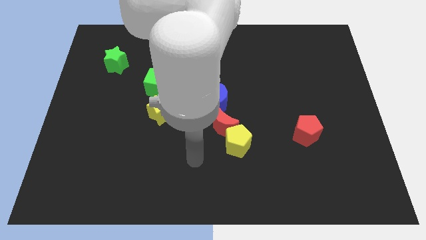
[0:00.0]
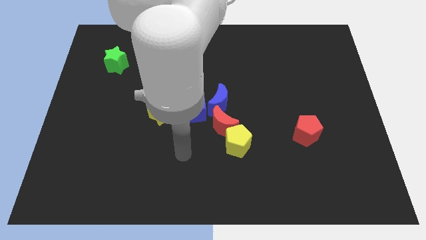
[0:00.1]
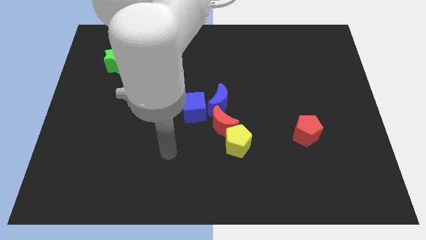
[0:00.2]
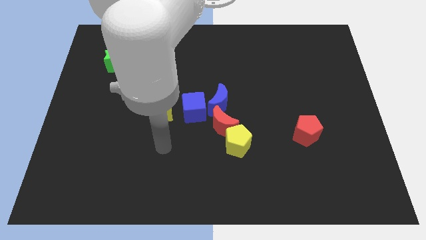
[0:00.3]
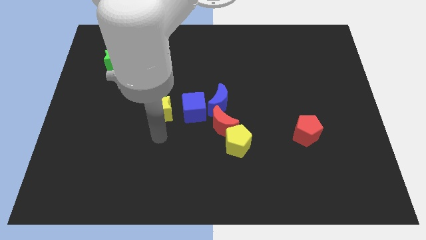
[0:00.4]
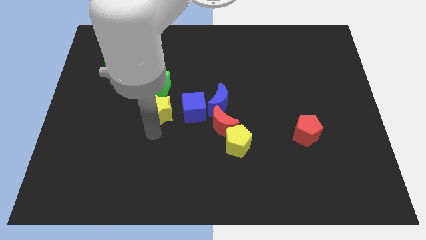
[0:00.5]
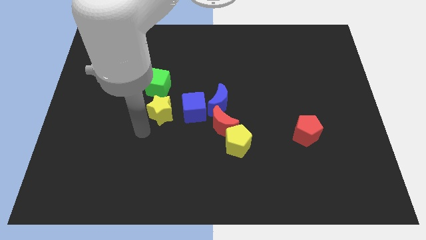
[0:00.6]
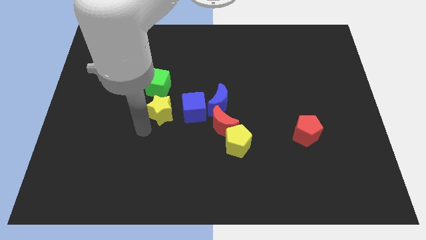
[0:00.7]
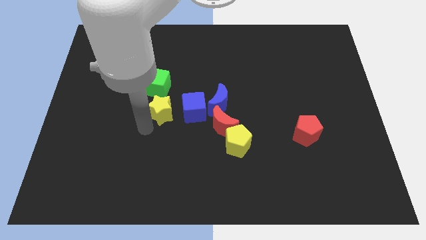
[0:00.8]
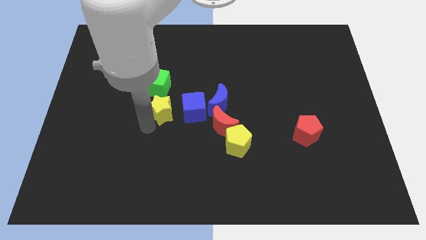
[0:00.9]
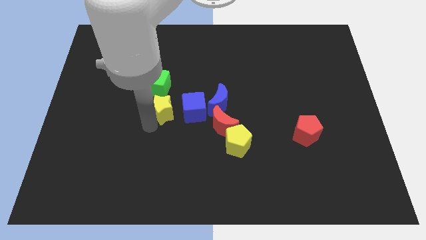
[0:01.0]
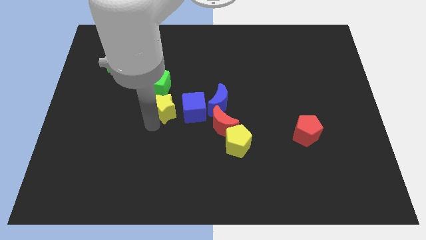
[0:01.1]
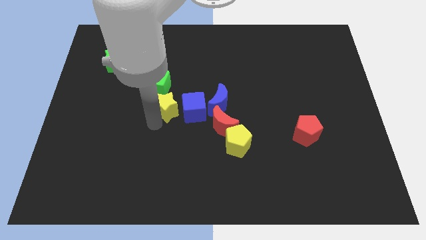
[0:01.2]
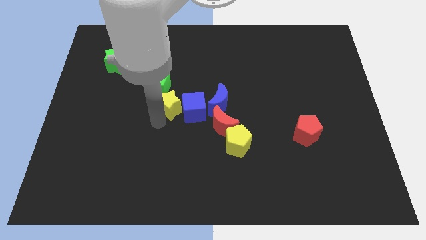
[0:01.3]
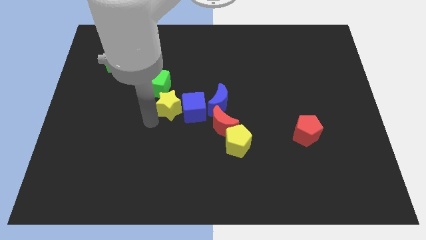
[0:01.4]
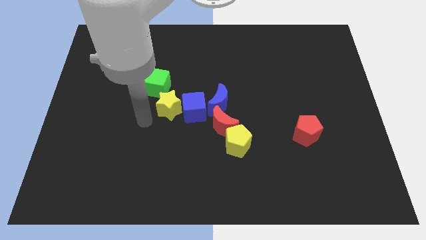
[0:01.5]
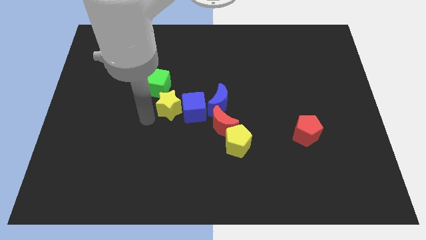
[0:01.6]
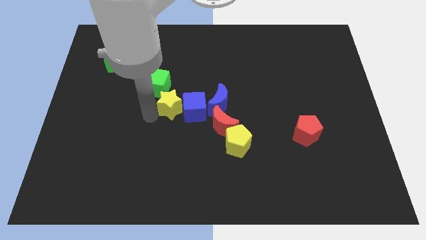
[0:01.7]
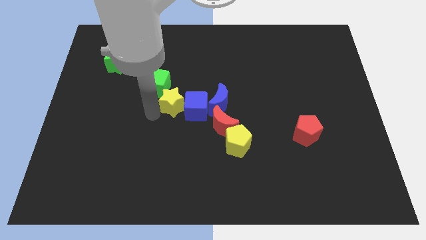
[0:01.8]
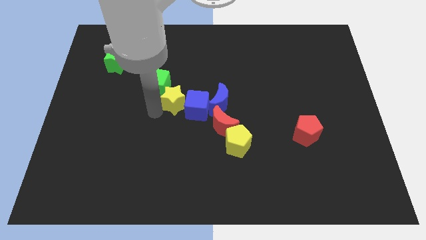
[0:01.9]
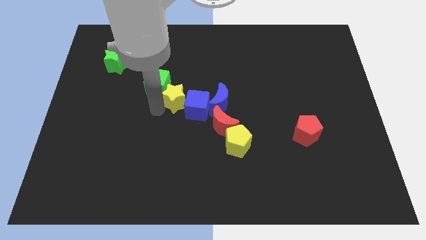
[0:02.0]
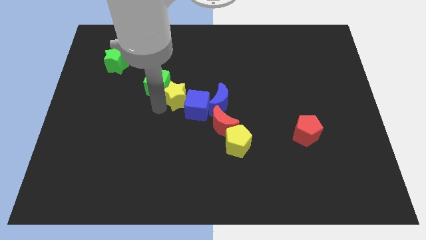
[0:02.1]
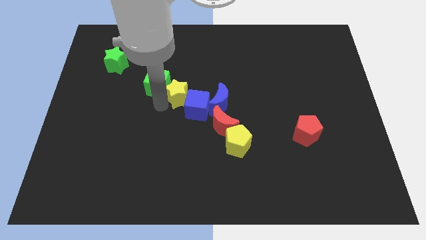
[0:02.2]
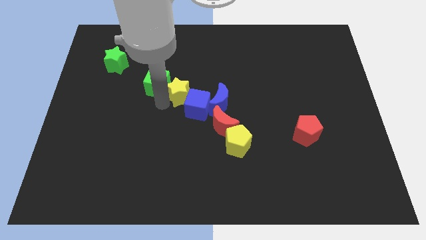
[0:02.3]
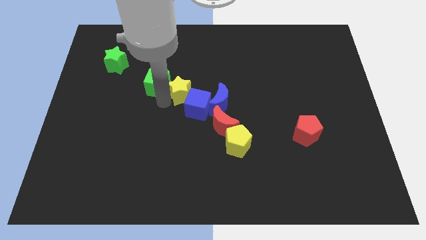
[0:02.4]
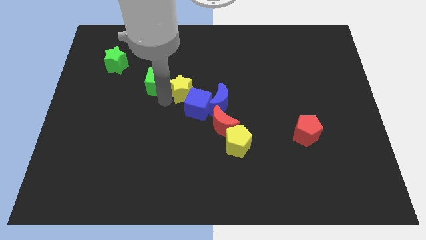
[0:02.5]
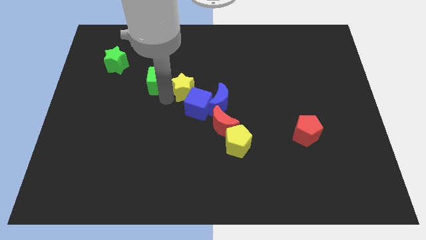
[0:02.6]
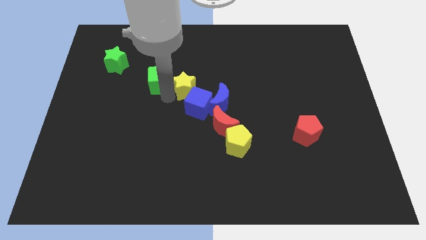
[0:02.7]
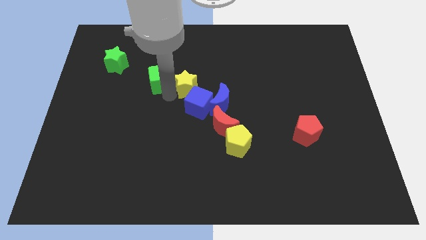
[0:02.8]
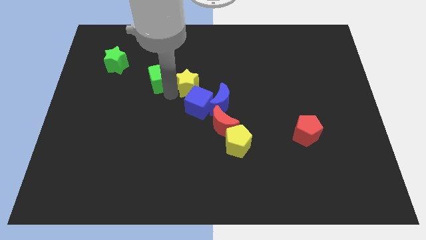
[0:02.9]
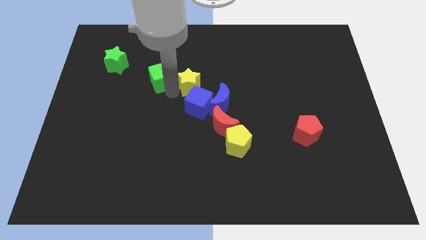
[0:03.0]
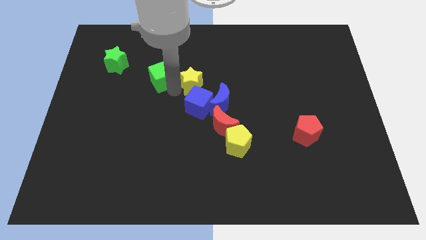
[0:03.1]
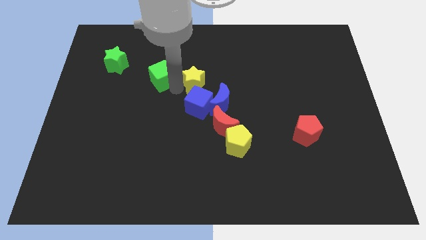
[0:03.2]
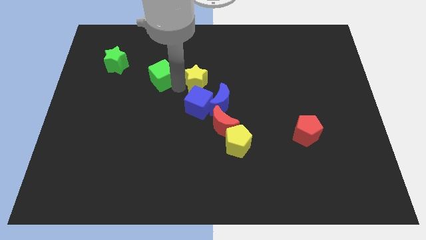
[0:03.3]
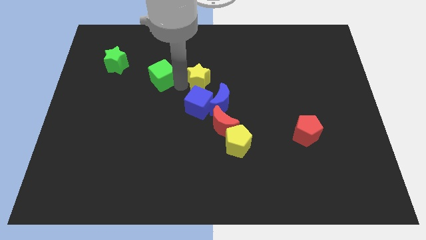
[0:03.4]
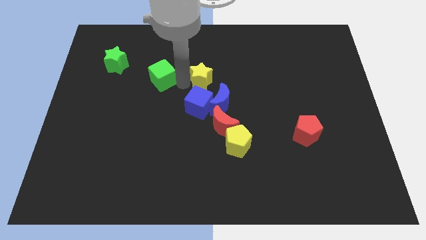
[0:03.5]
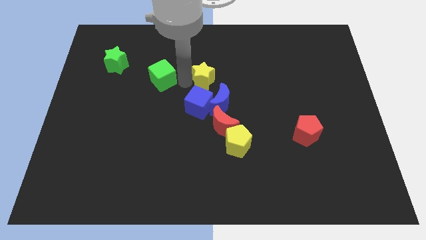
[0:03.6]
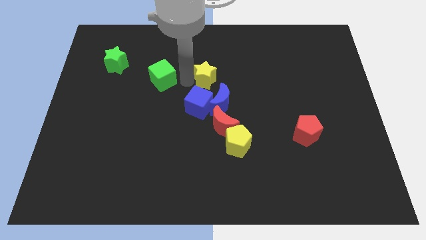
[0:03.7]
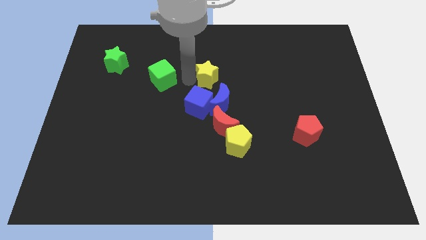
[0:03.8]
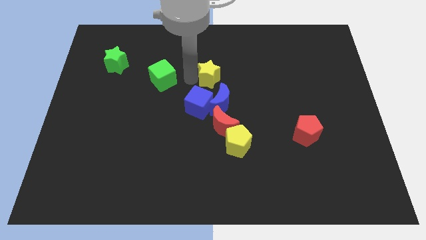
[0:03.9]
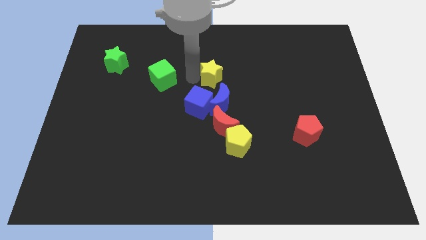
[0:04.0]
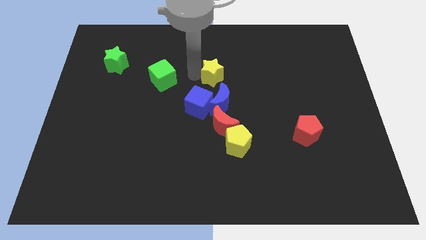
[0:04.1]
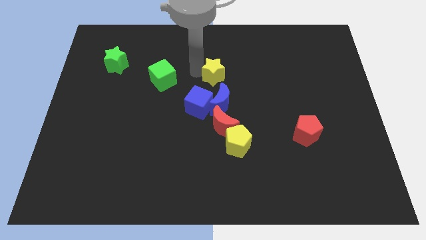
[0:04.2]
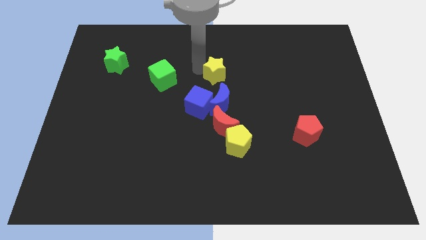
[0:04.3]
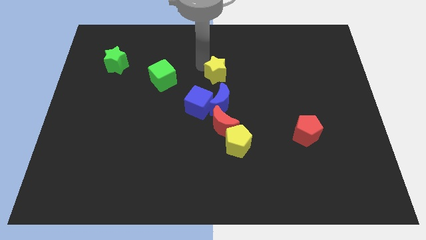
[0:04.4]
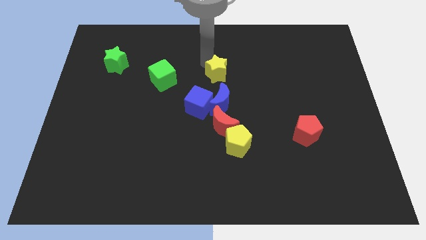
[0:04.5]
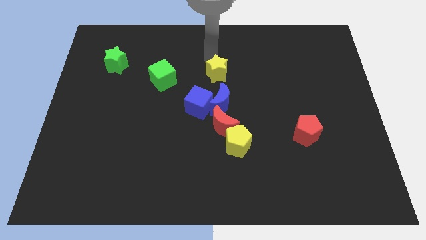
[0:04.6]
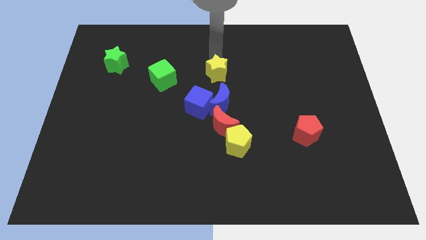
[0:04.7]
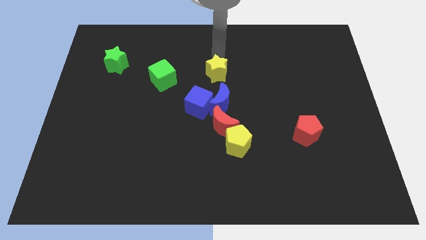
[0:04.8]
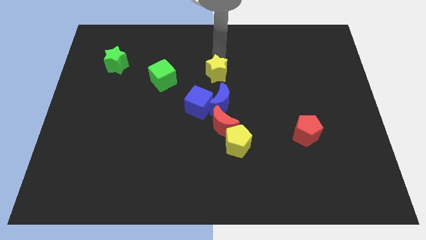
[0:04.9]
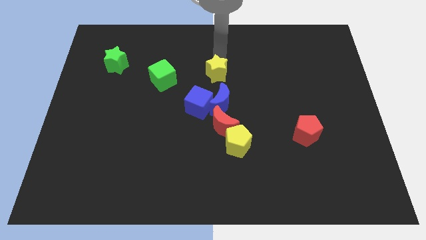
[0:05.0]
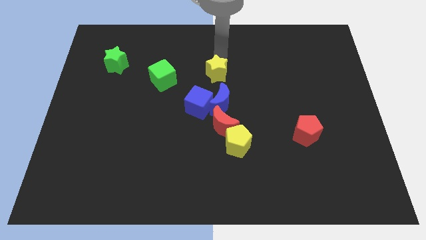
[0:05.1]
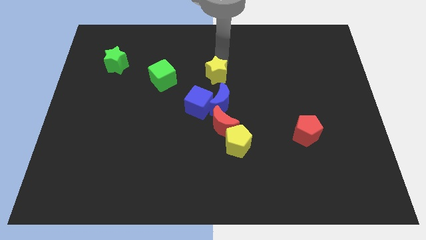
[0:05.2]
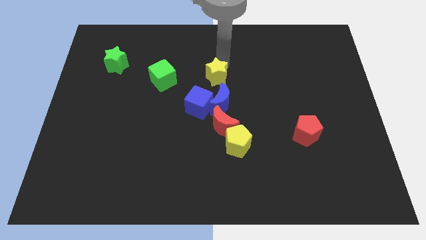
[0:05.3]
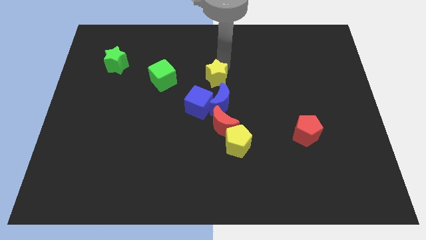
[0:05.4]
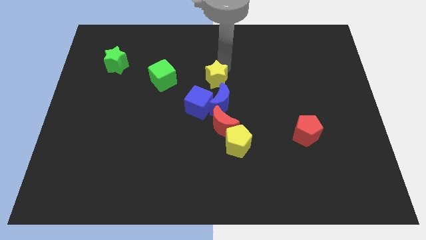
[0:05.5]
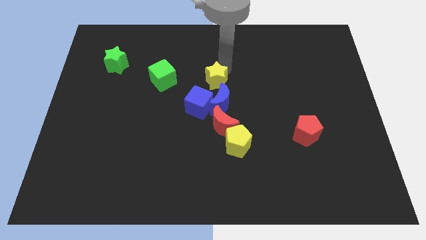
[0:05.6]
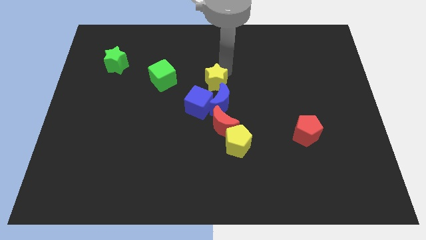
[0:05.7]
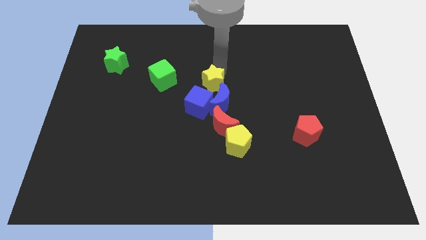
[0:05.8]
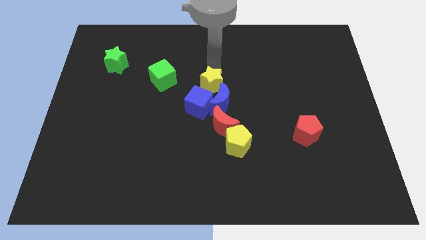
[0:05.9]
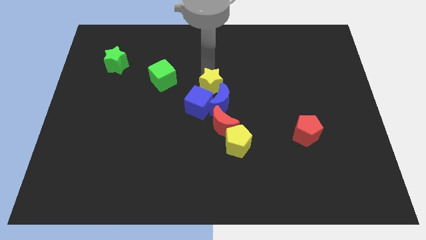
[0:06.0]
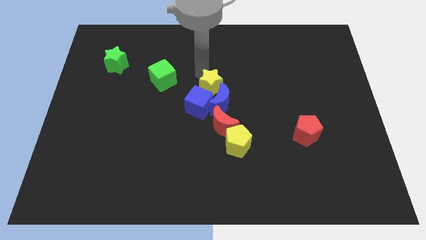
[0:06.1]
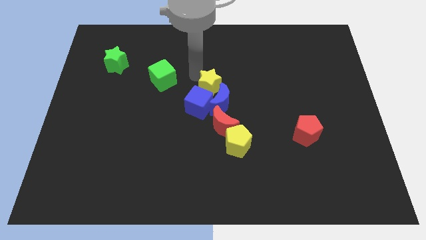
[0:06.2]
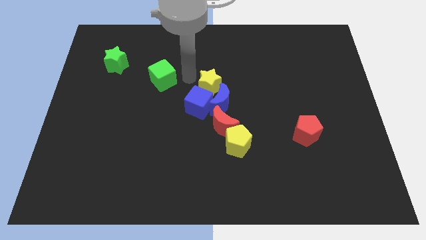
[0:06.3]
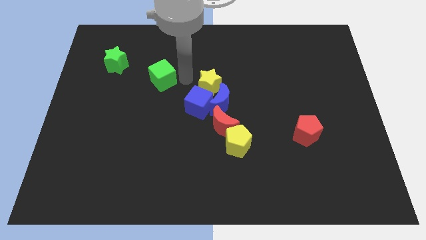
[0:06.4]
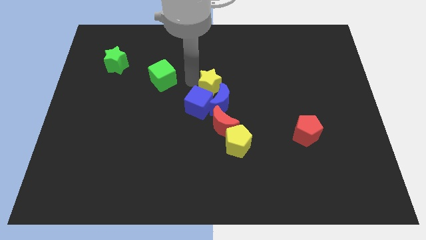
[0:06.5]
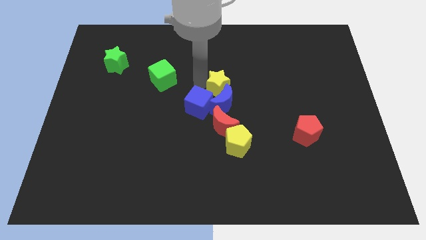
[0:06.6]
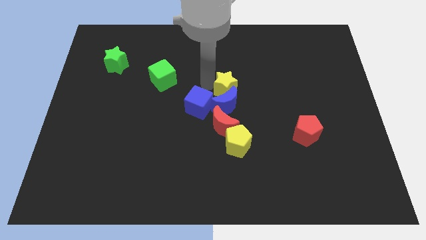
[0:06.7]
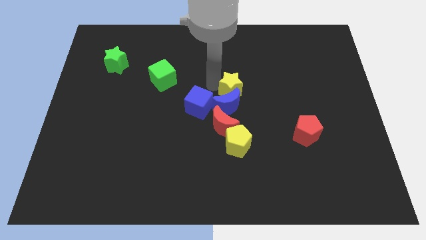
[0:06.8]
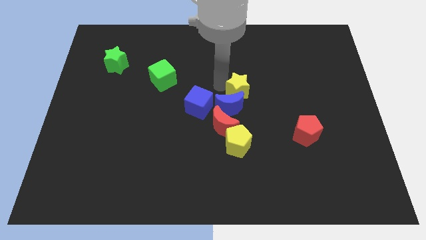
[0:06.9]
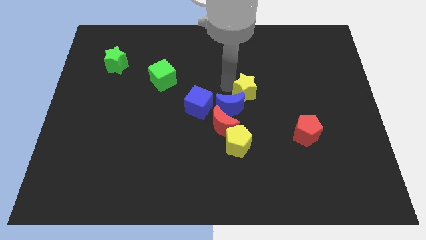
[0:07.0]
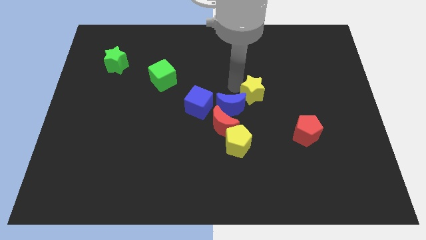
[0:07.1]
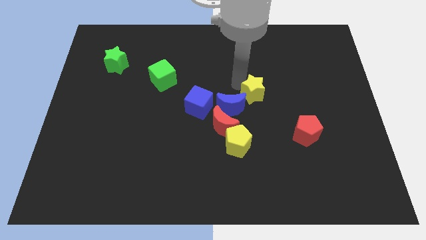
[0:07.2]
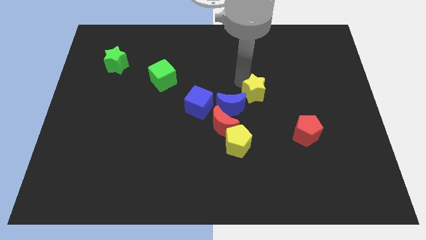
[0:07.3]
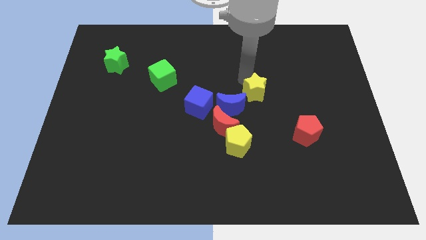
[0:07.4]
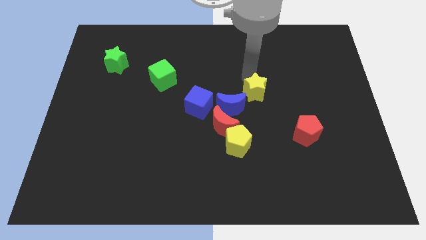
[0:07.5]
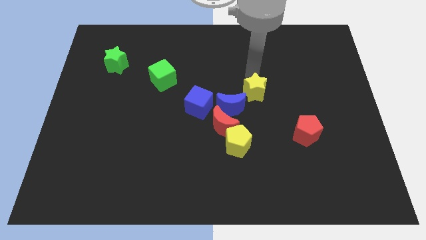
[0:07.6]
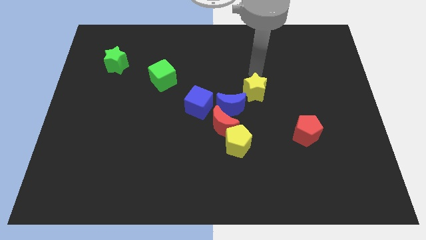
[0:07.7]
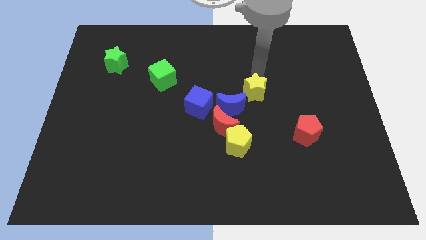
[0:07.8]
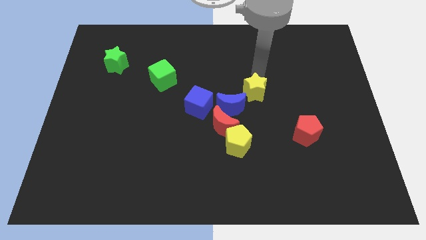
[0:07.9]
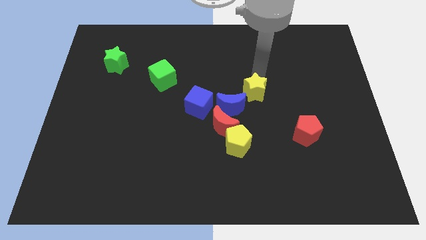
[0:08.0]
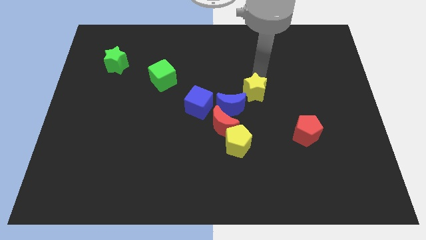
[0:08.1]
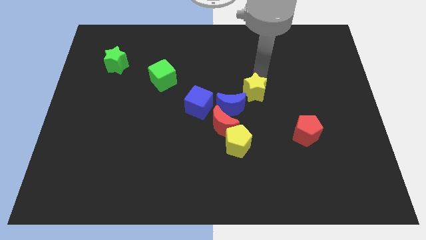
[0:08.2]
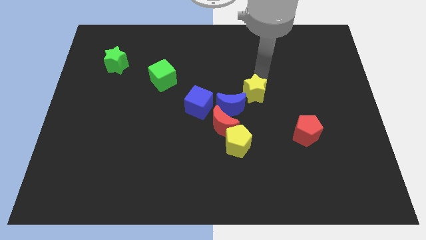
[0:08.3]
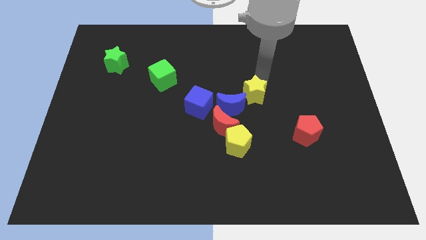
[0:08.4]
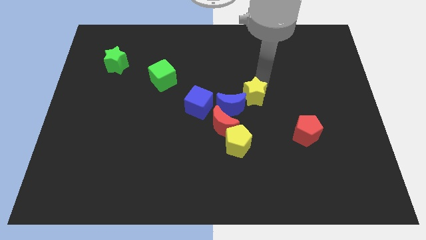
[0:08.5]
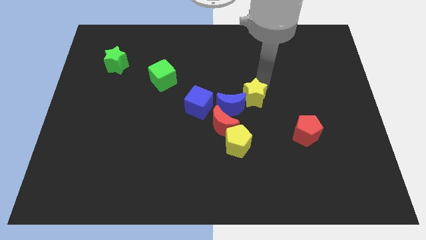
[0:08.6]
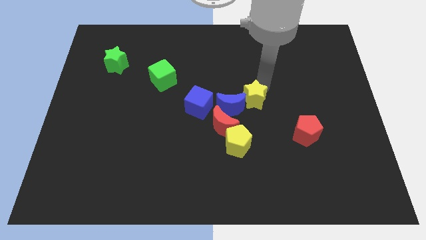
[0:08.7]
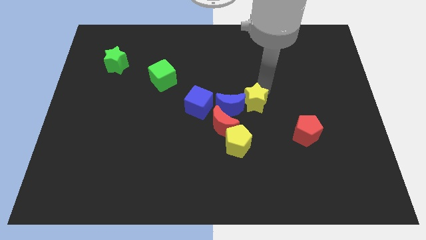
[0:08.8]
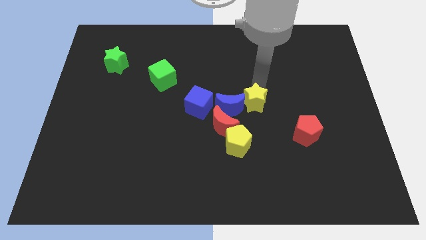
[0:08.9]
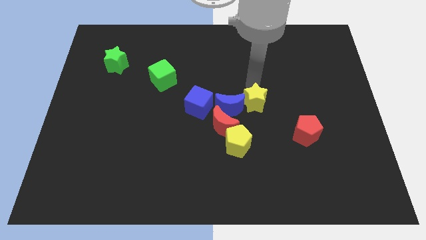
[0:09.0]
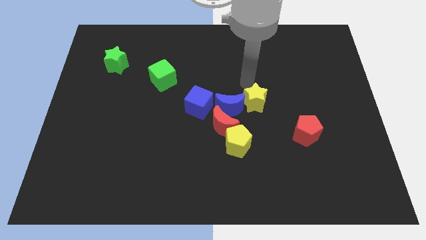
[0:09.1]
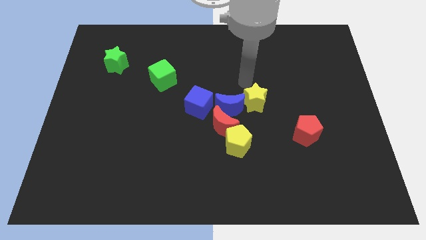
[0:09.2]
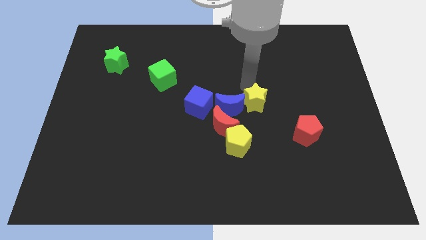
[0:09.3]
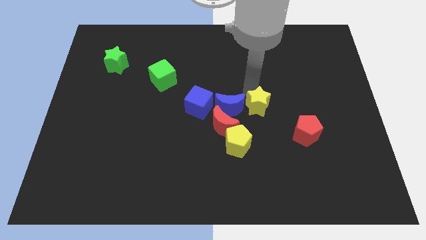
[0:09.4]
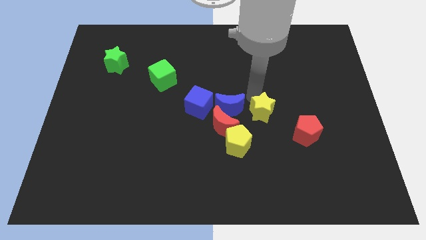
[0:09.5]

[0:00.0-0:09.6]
push the yellow star just right of the red moon
